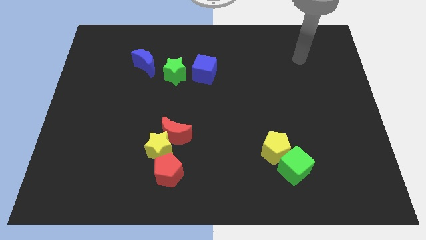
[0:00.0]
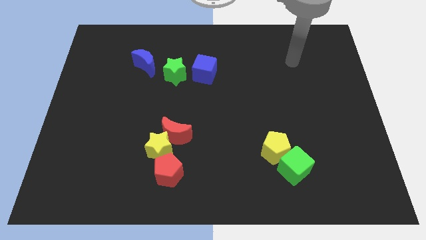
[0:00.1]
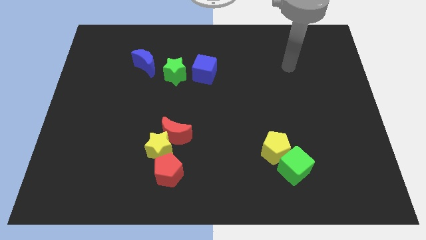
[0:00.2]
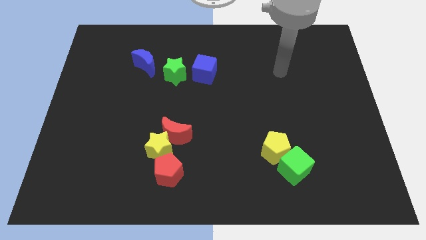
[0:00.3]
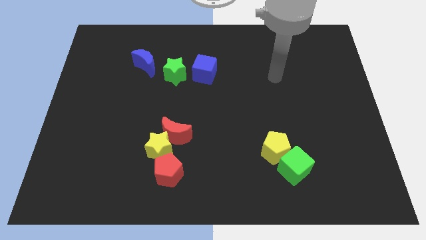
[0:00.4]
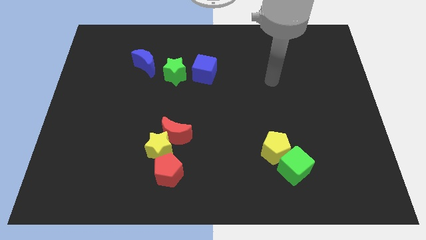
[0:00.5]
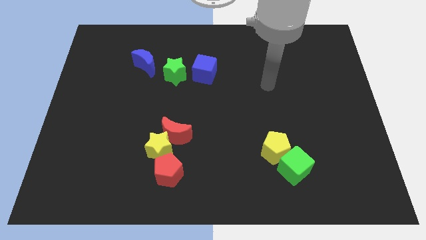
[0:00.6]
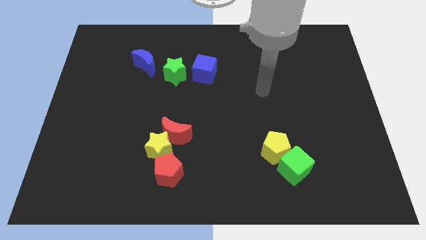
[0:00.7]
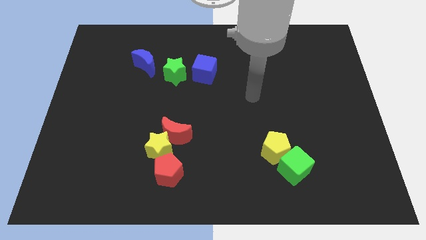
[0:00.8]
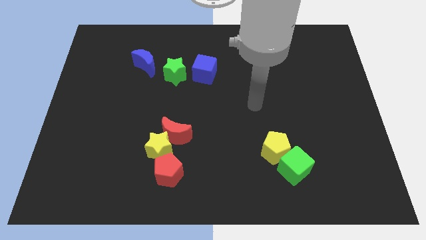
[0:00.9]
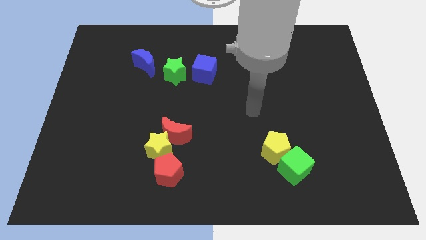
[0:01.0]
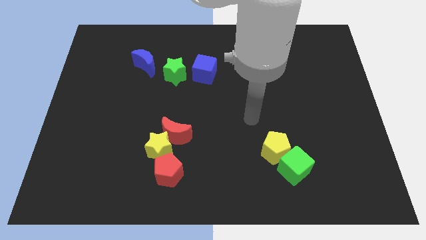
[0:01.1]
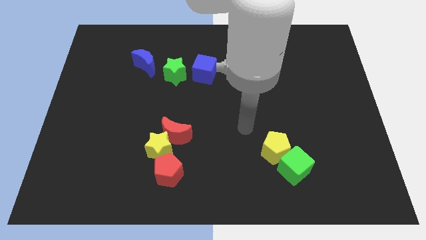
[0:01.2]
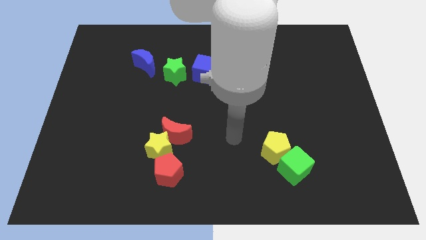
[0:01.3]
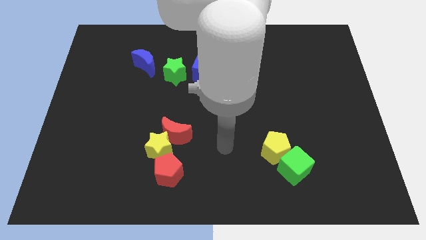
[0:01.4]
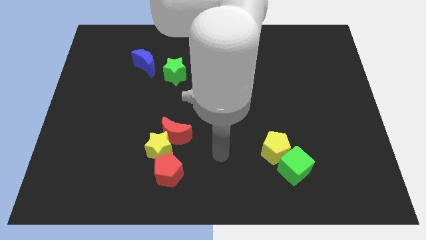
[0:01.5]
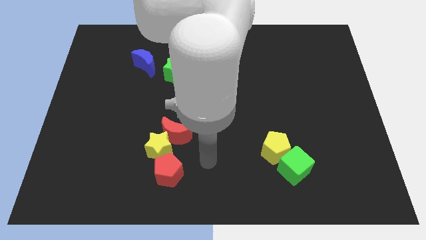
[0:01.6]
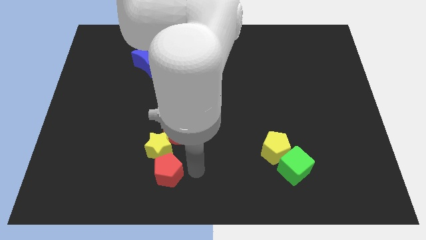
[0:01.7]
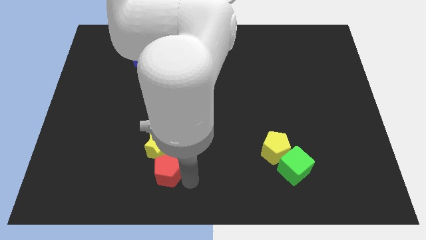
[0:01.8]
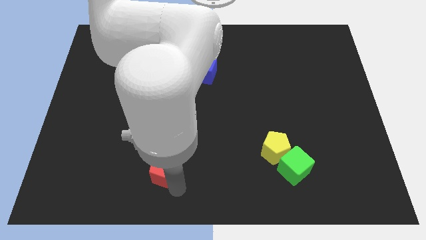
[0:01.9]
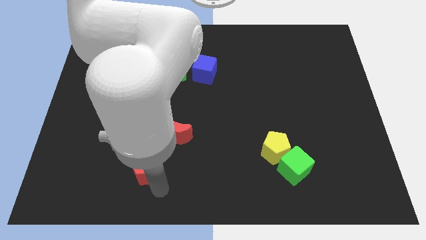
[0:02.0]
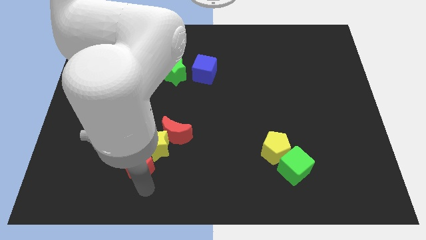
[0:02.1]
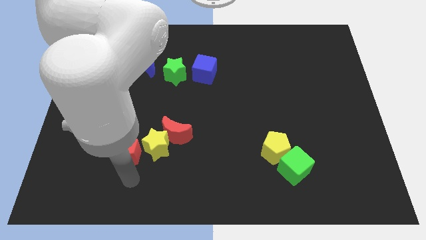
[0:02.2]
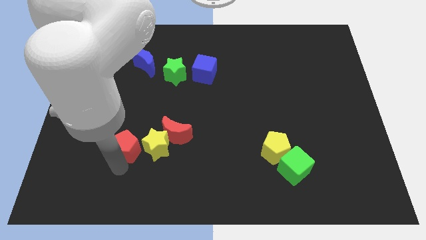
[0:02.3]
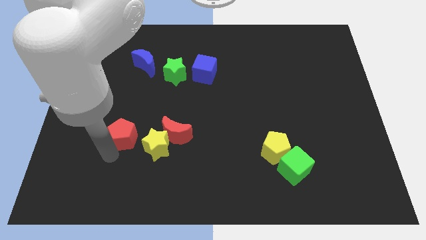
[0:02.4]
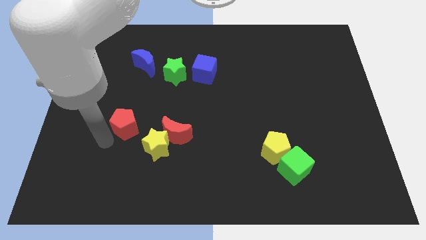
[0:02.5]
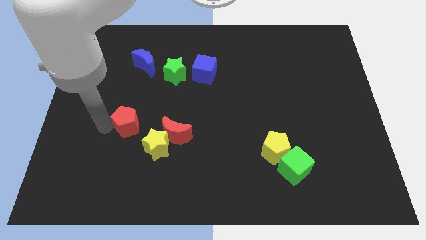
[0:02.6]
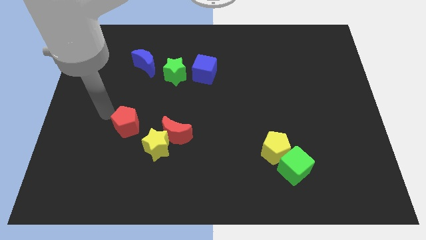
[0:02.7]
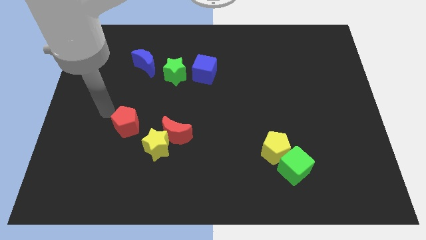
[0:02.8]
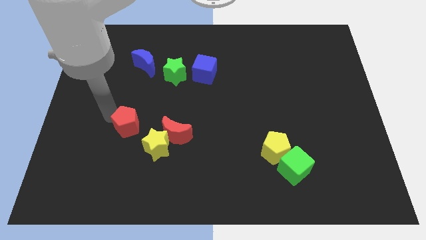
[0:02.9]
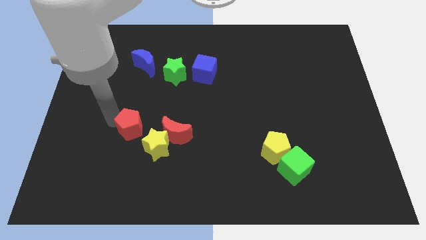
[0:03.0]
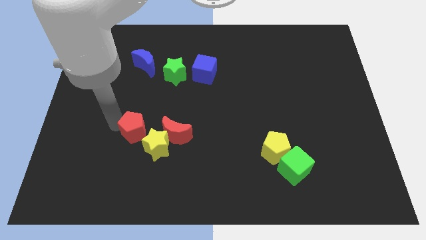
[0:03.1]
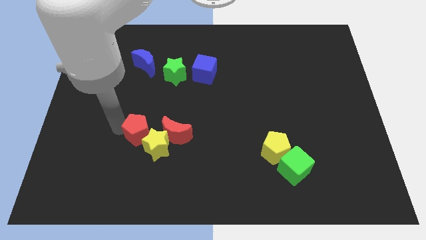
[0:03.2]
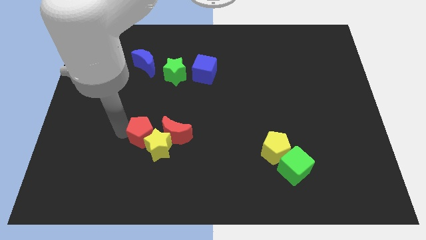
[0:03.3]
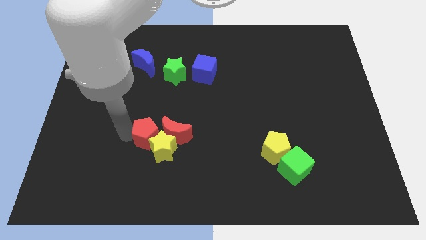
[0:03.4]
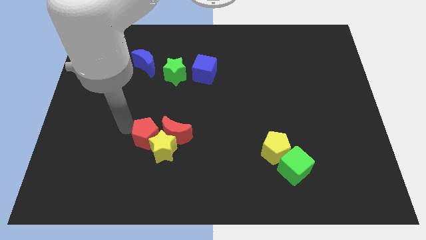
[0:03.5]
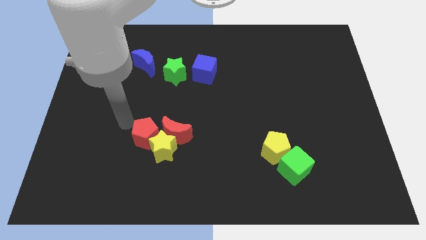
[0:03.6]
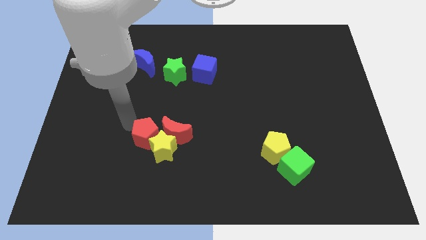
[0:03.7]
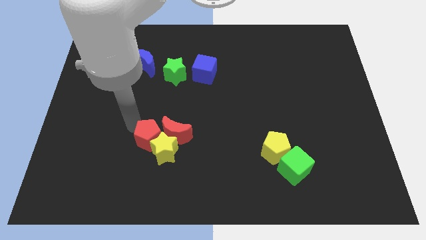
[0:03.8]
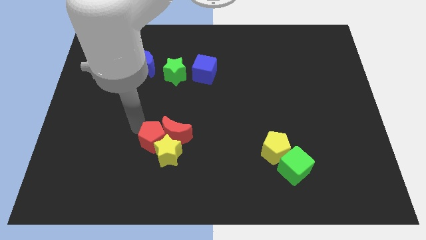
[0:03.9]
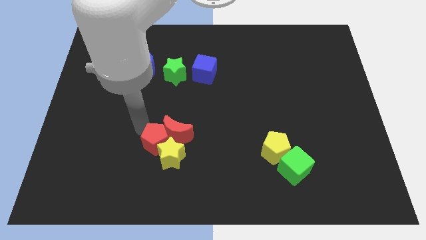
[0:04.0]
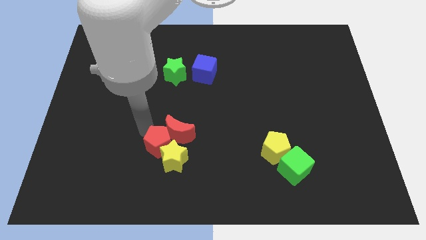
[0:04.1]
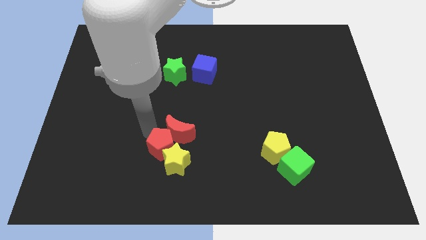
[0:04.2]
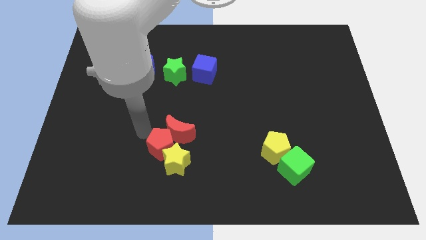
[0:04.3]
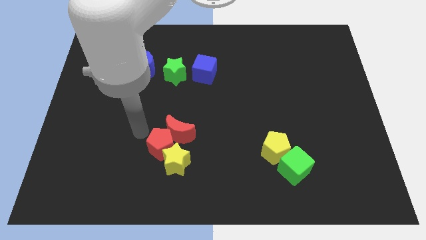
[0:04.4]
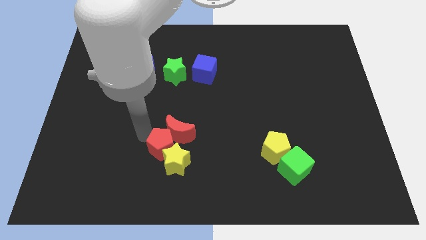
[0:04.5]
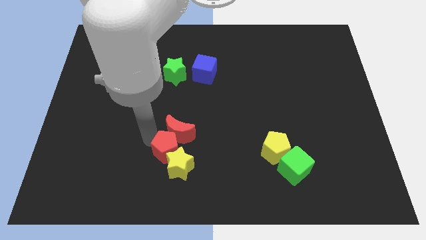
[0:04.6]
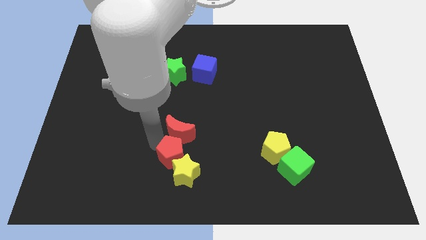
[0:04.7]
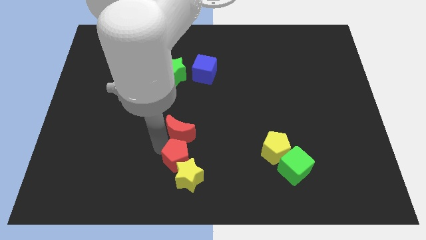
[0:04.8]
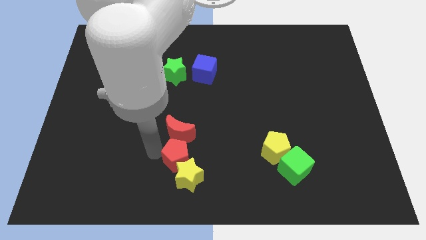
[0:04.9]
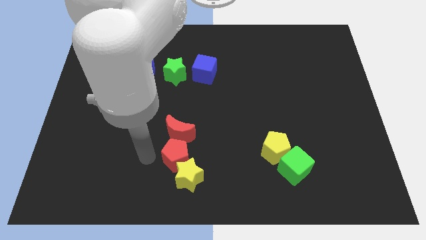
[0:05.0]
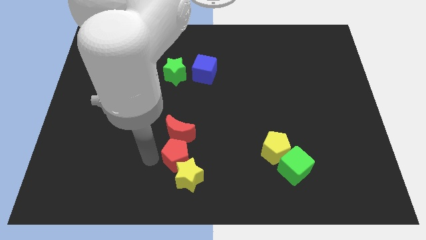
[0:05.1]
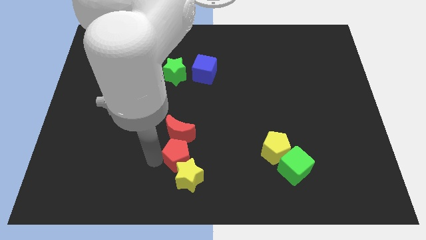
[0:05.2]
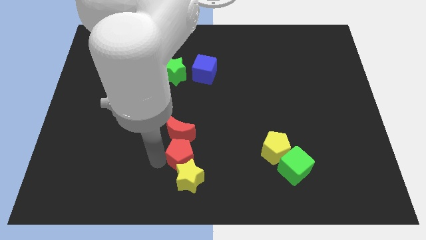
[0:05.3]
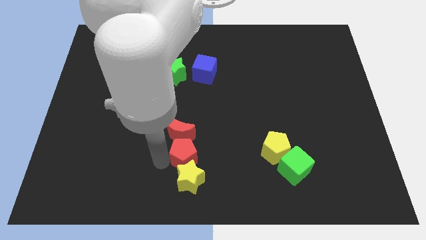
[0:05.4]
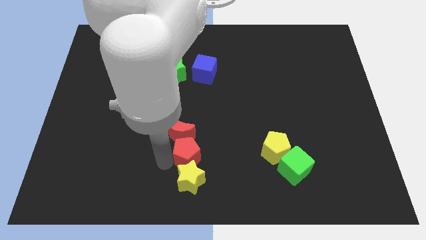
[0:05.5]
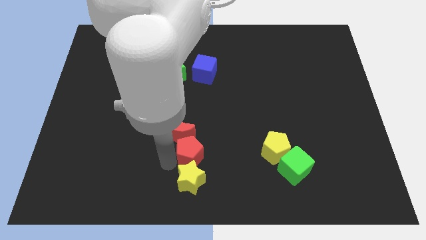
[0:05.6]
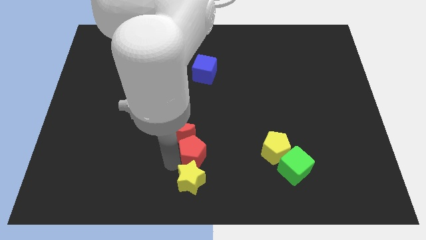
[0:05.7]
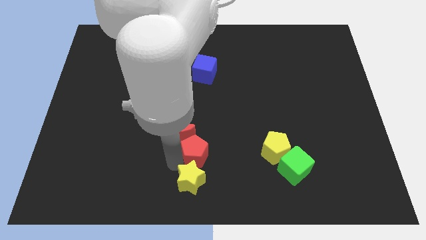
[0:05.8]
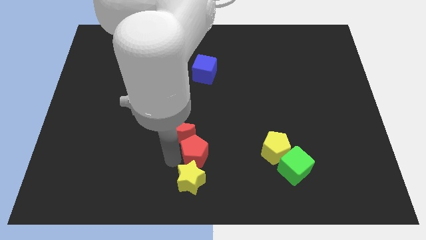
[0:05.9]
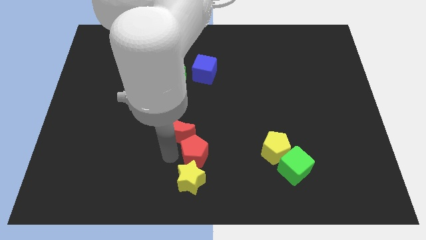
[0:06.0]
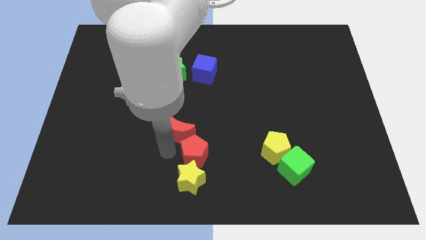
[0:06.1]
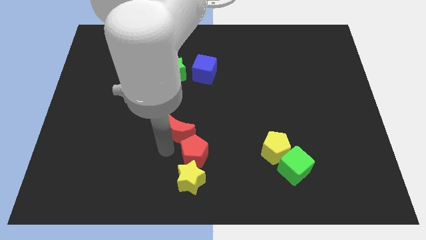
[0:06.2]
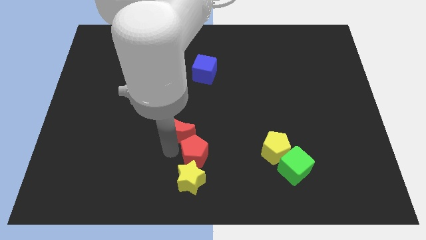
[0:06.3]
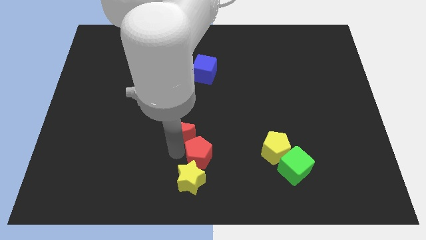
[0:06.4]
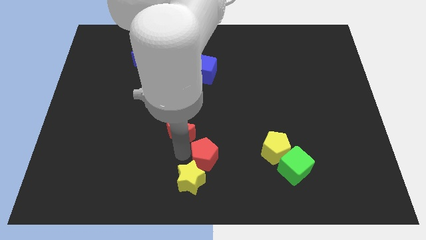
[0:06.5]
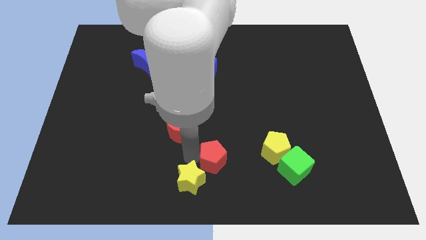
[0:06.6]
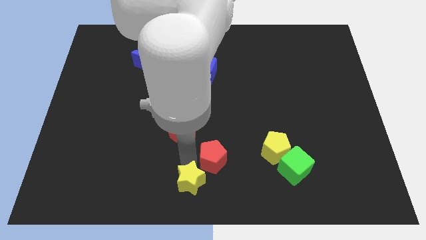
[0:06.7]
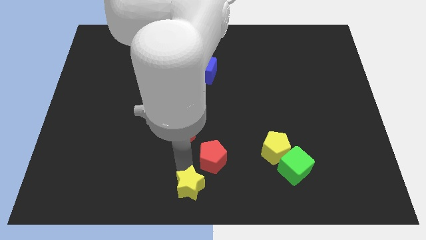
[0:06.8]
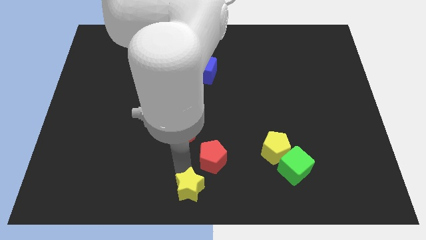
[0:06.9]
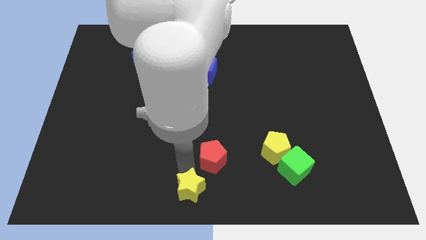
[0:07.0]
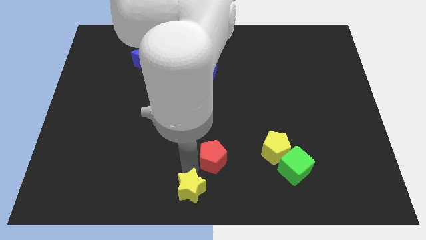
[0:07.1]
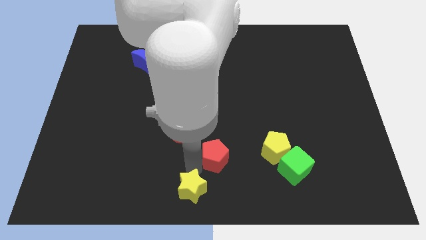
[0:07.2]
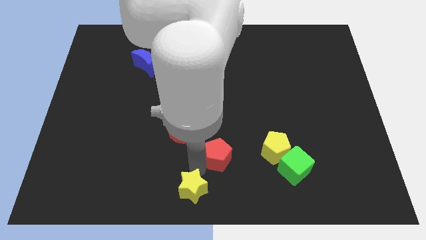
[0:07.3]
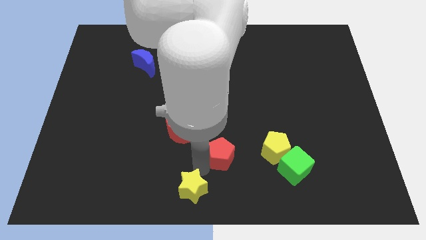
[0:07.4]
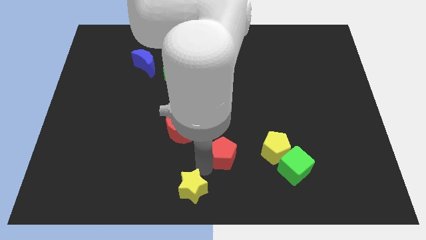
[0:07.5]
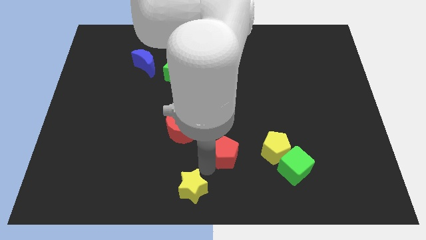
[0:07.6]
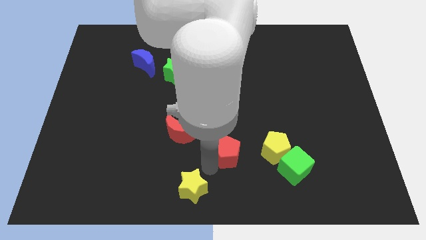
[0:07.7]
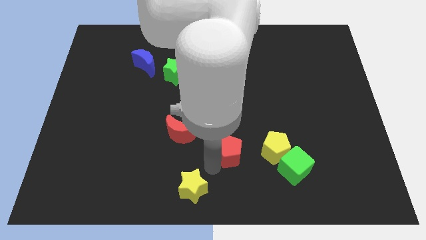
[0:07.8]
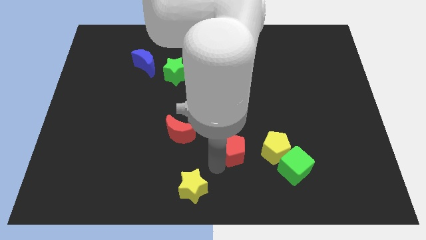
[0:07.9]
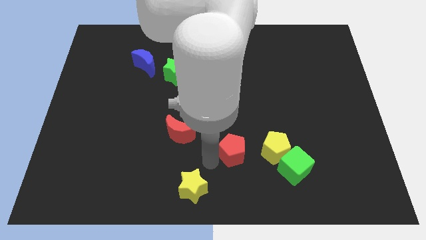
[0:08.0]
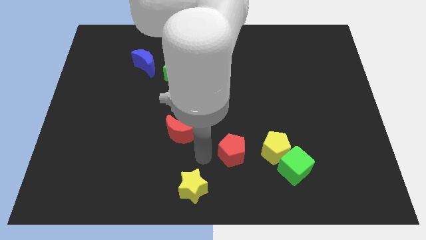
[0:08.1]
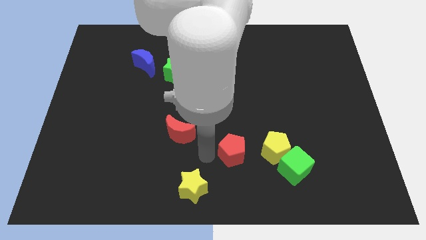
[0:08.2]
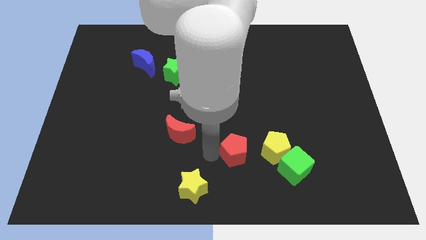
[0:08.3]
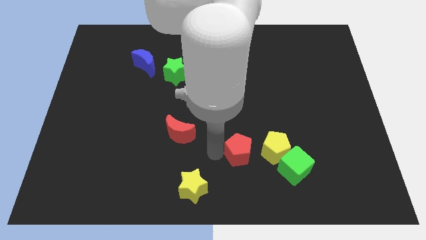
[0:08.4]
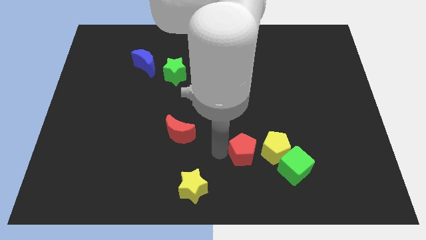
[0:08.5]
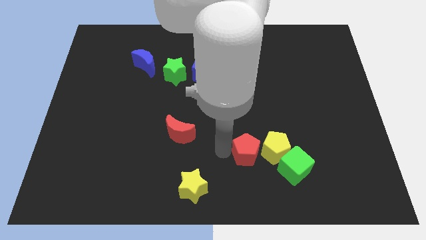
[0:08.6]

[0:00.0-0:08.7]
move the red pentagon to the yellow pentagon
